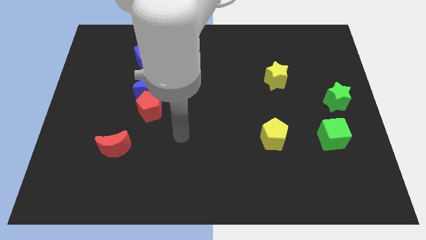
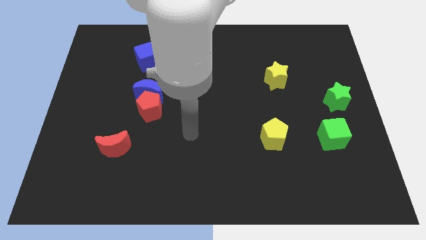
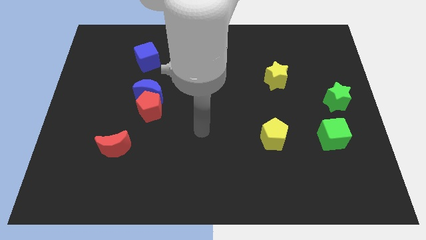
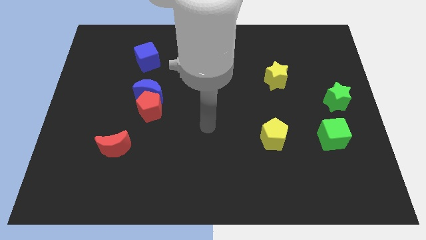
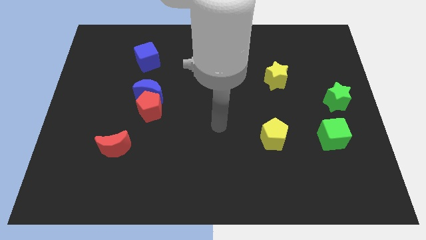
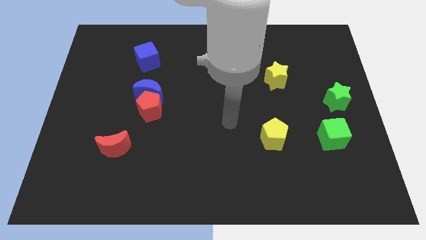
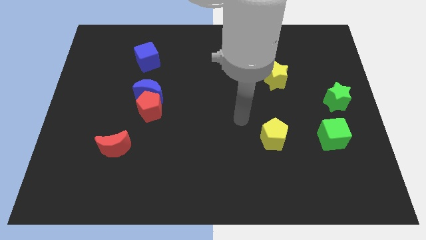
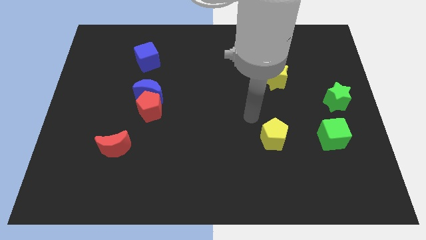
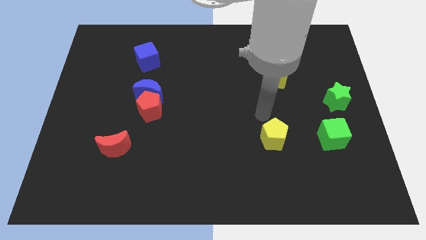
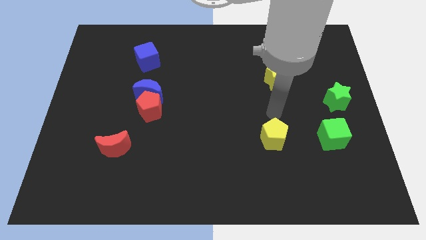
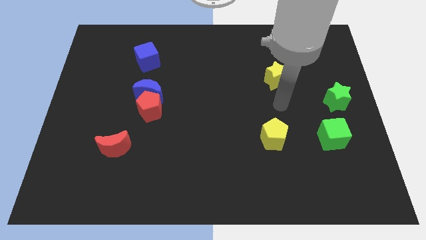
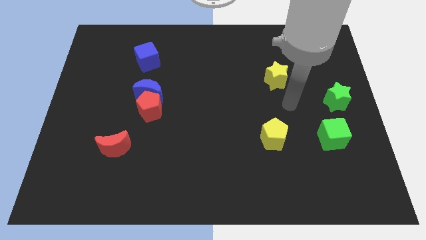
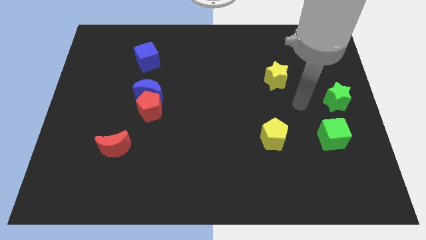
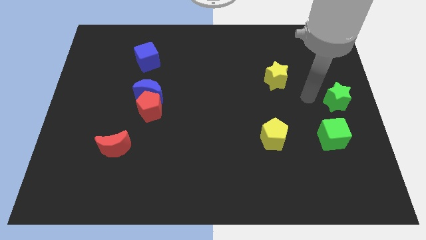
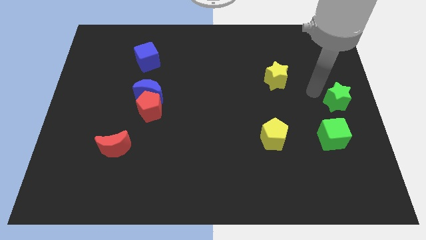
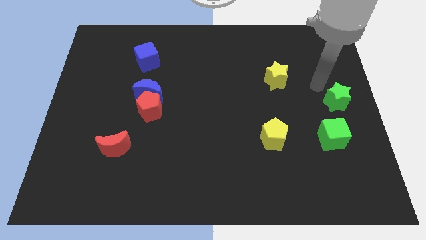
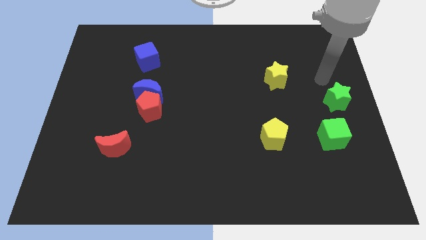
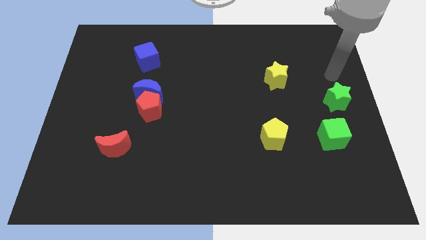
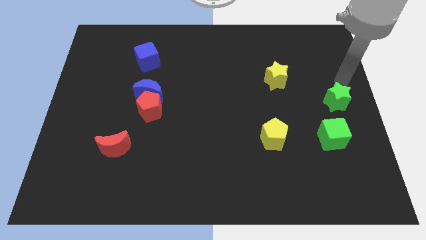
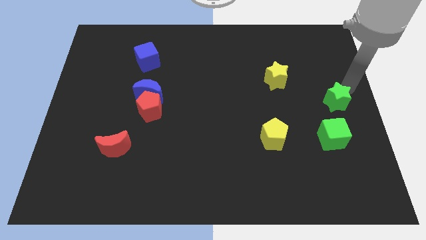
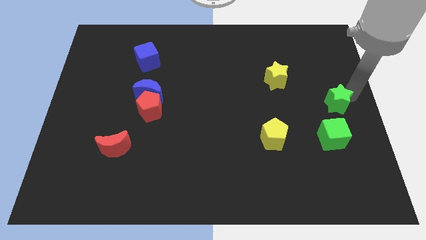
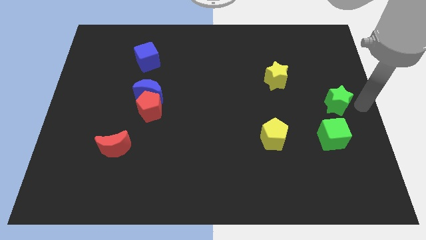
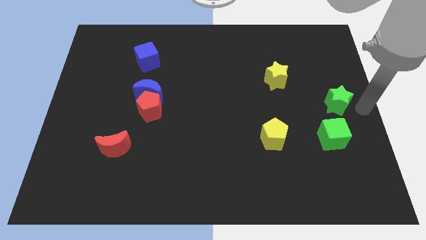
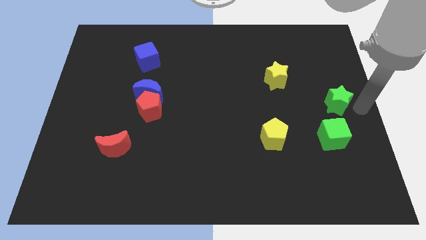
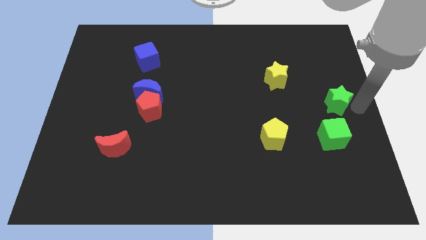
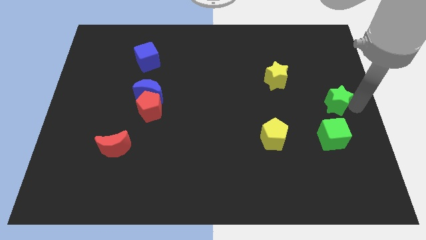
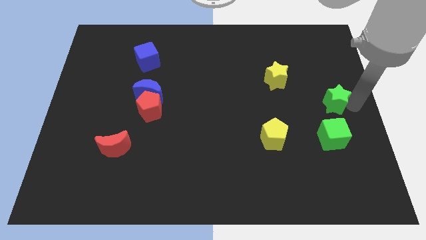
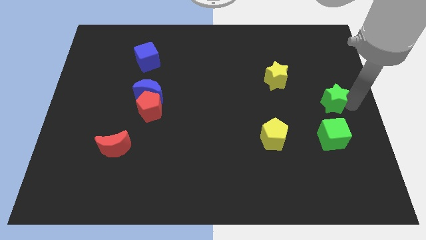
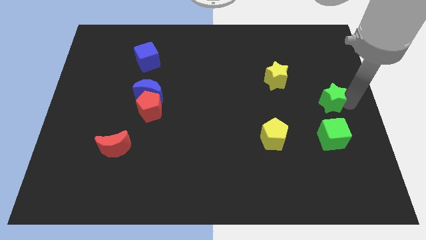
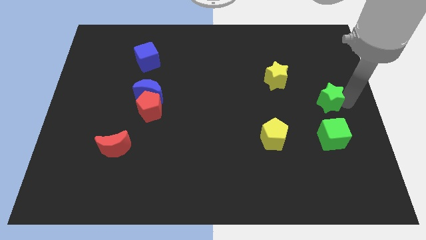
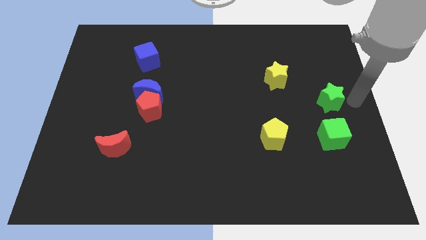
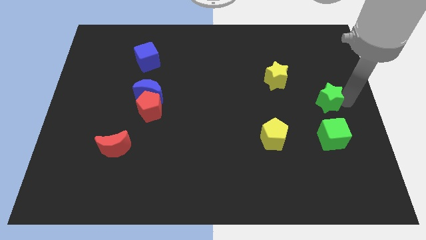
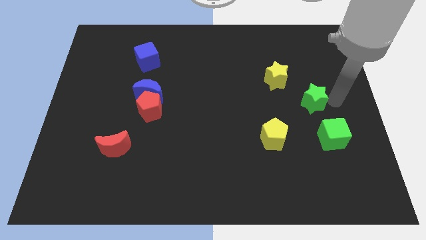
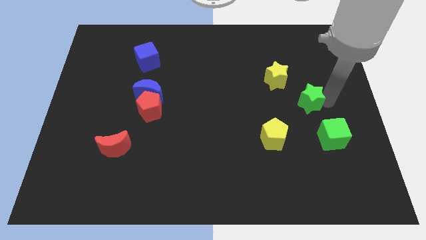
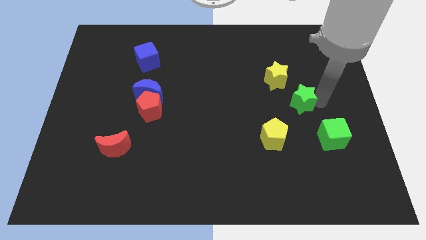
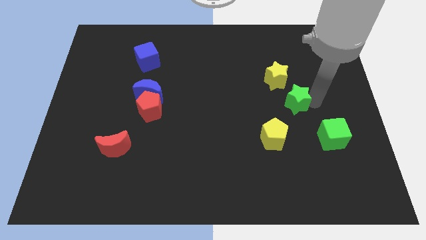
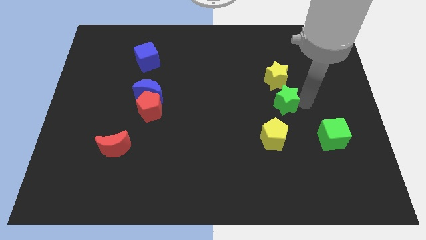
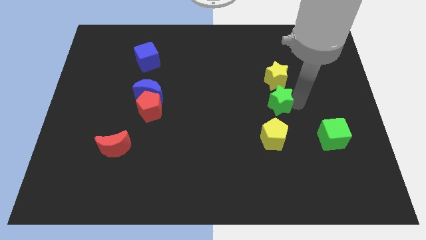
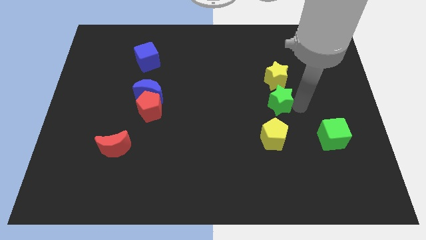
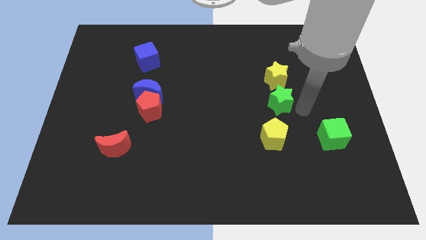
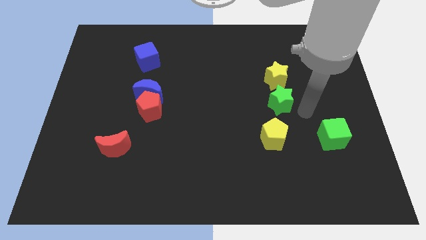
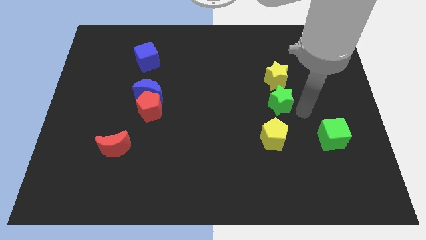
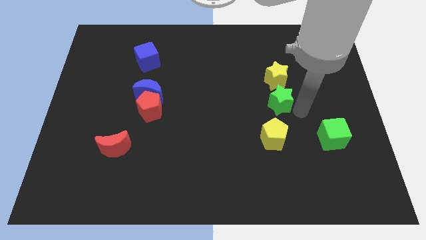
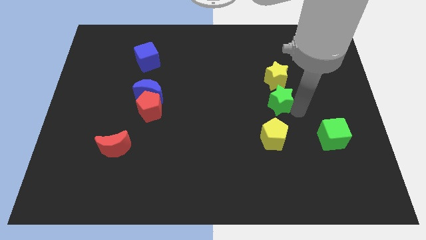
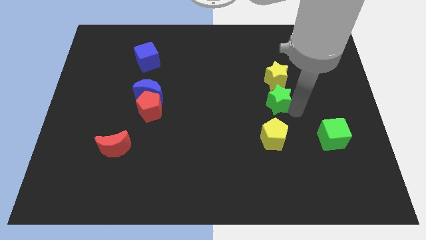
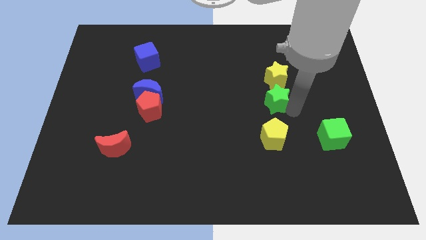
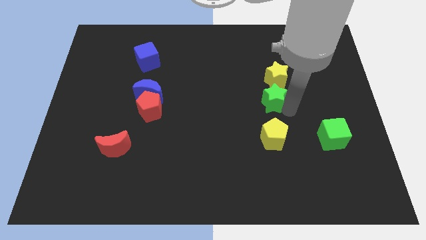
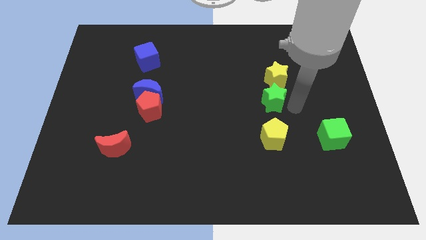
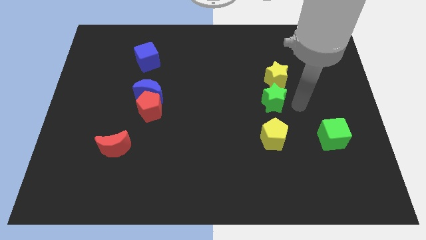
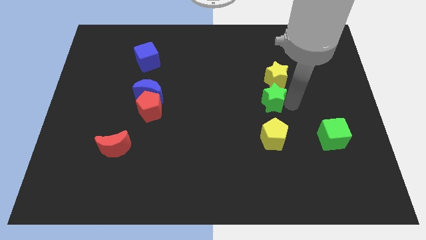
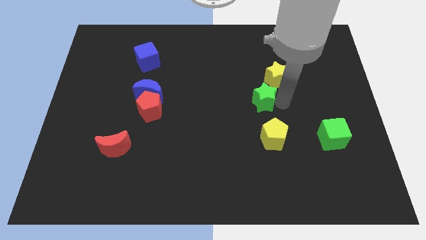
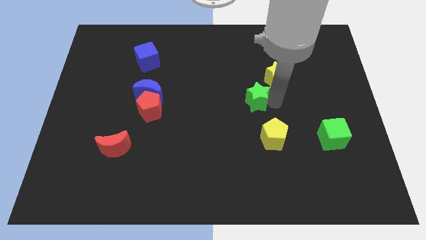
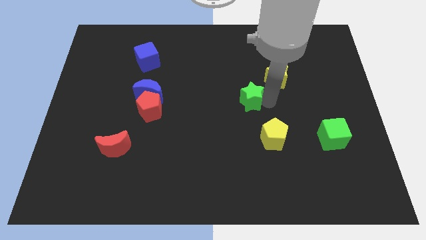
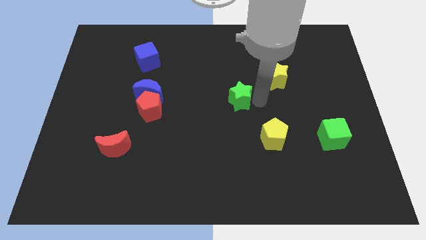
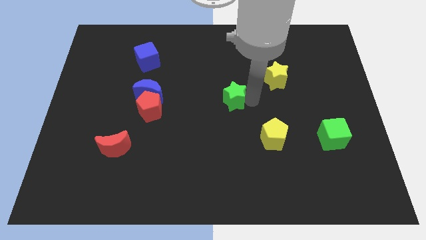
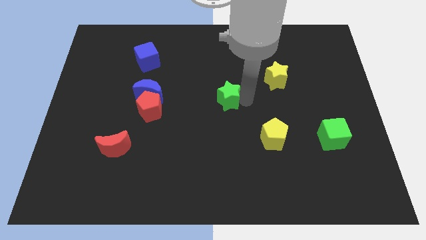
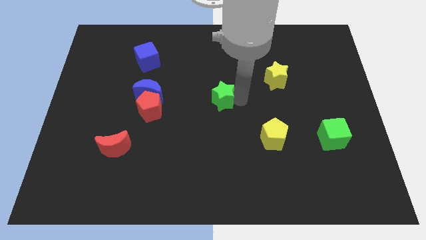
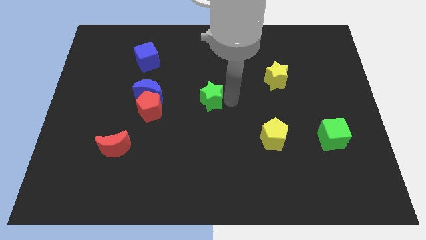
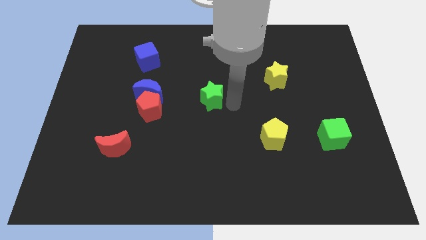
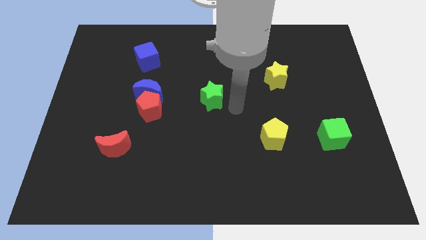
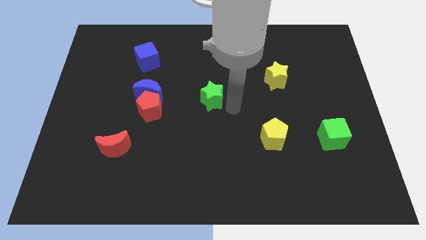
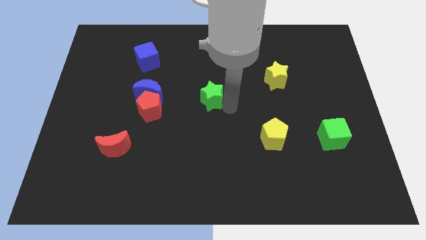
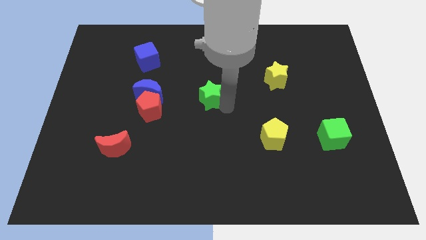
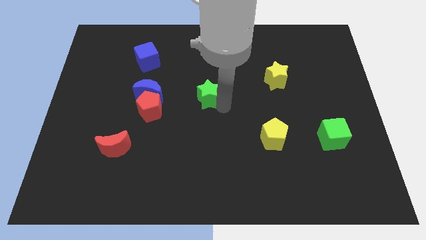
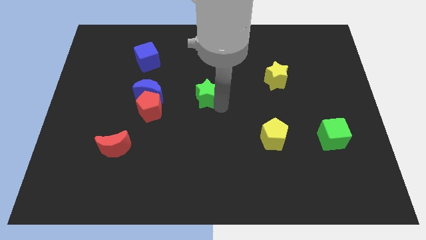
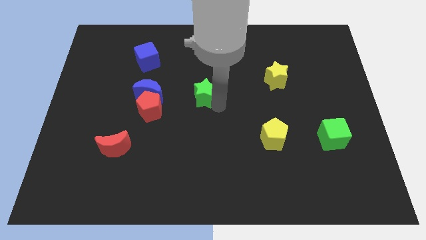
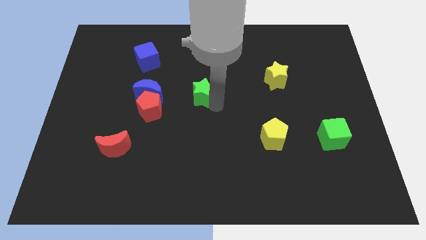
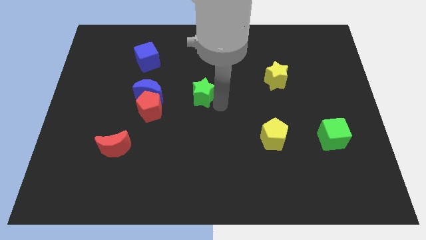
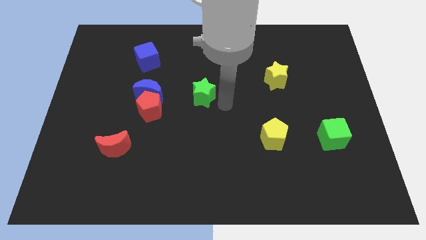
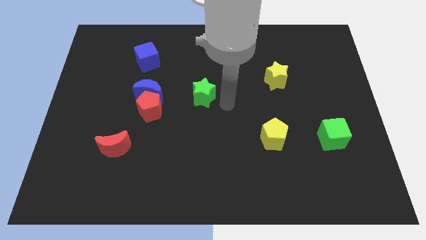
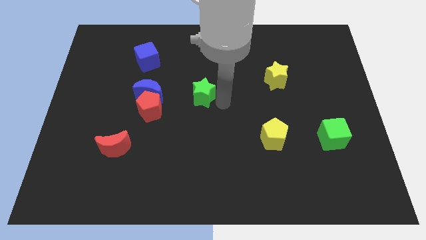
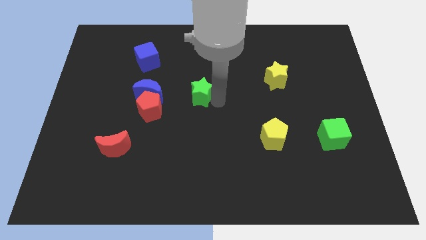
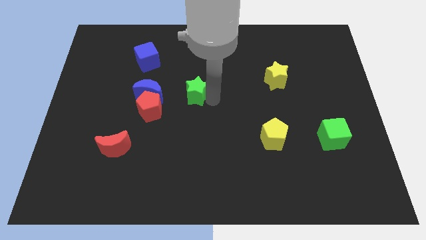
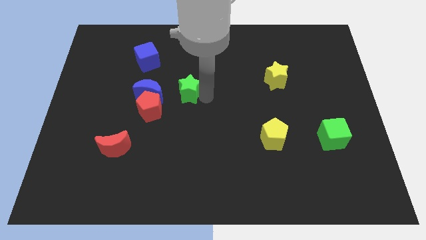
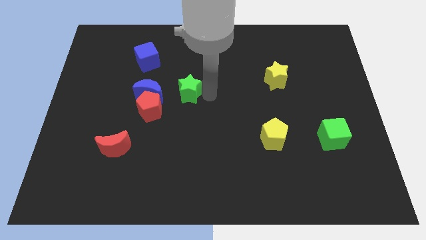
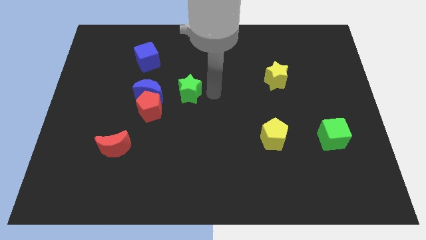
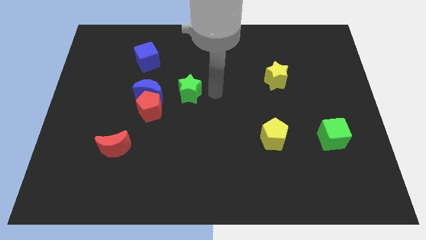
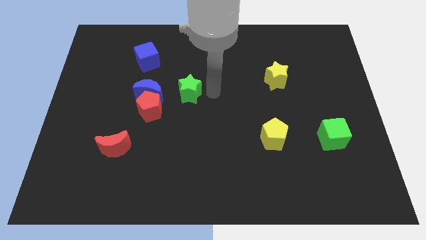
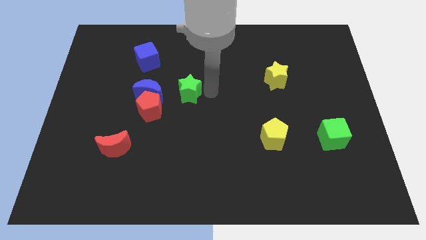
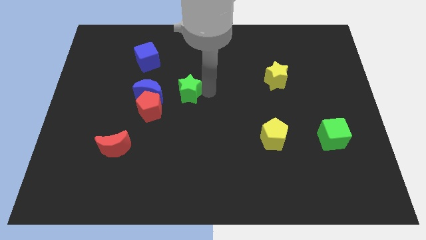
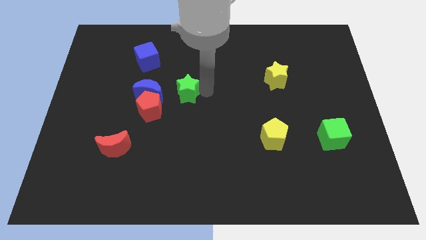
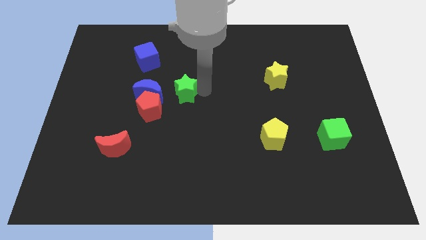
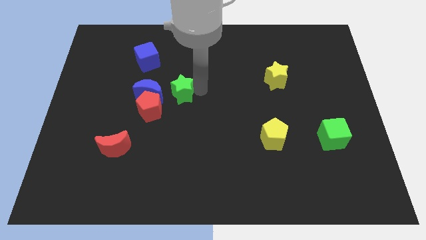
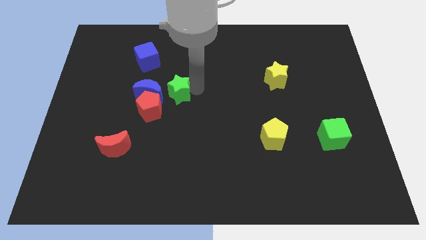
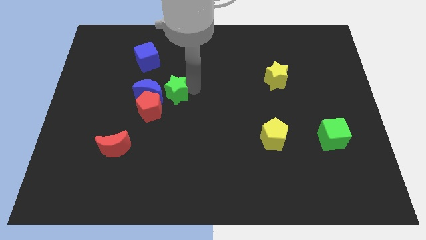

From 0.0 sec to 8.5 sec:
move the green star next to the blue moon
